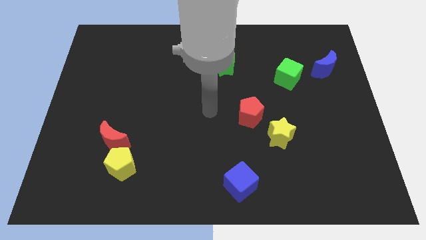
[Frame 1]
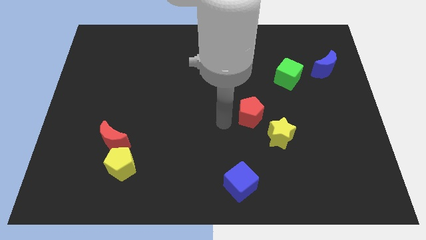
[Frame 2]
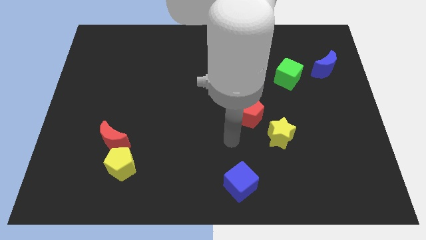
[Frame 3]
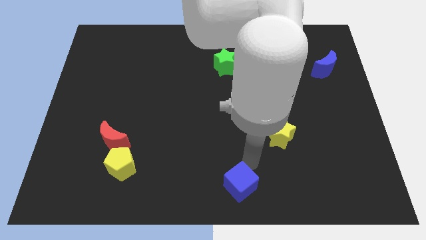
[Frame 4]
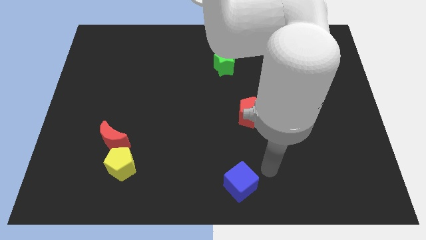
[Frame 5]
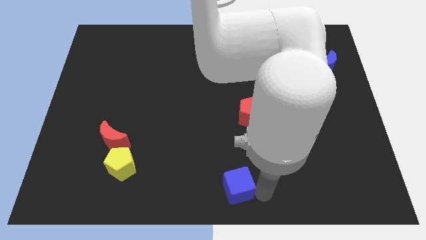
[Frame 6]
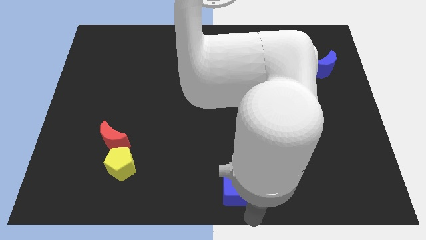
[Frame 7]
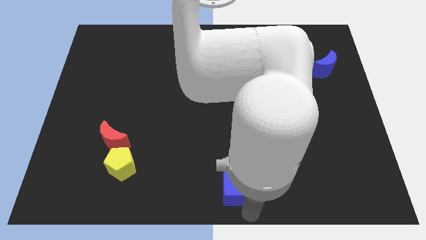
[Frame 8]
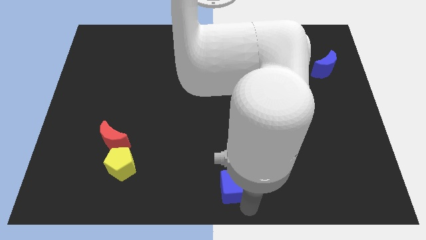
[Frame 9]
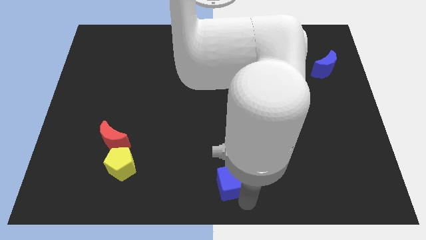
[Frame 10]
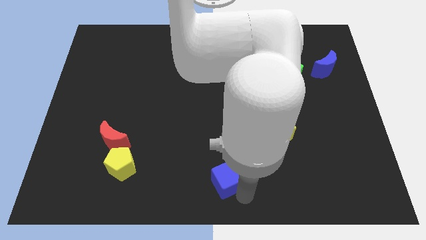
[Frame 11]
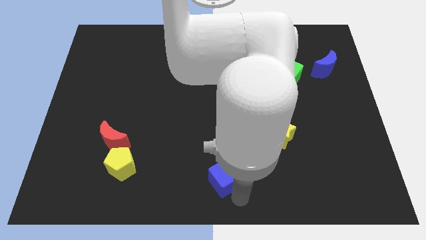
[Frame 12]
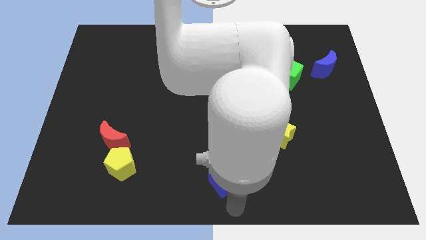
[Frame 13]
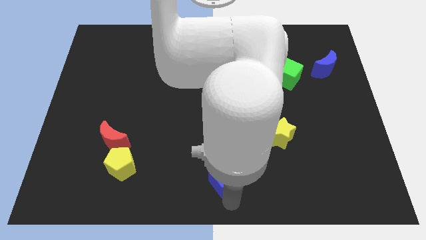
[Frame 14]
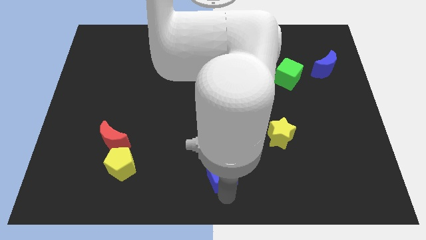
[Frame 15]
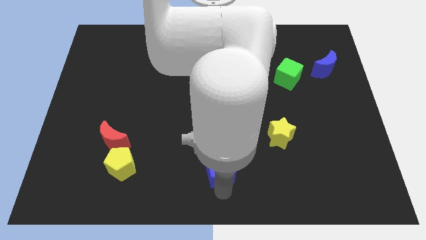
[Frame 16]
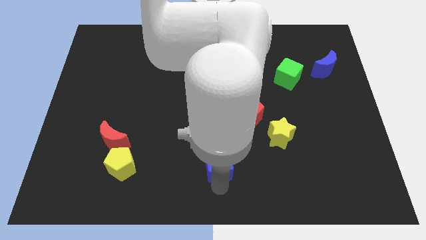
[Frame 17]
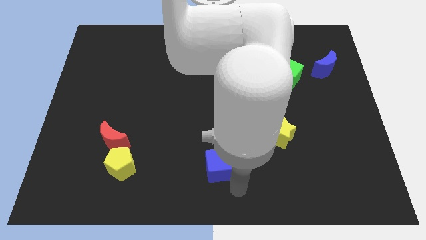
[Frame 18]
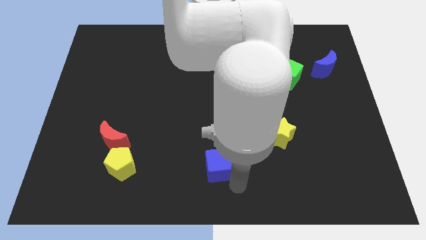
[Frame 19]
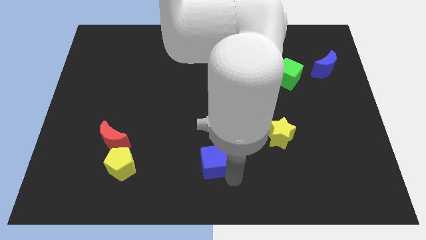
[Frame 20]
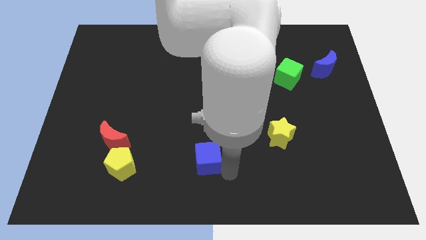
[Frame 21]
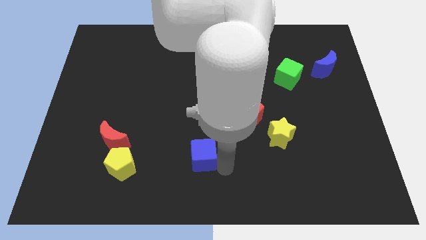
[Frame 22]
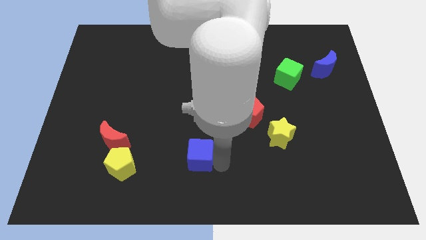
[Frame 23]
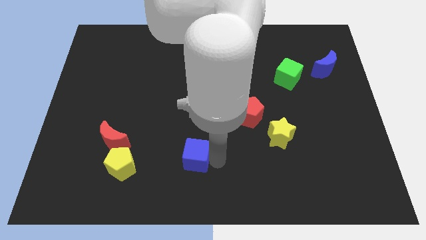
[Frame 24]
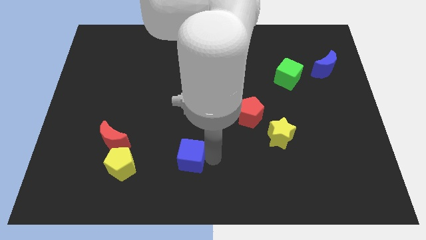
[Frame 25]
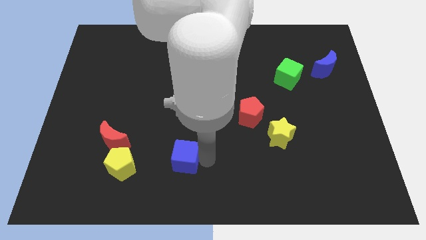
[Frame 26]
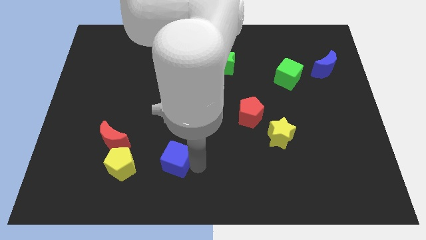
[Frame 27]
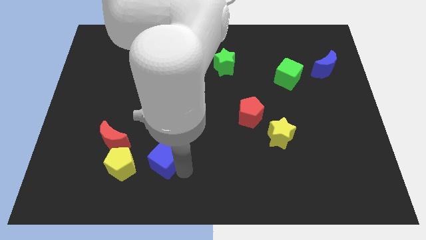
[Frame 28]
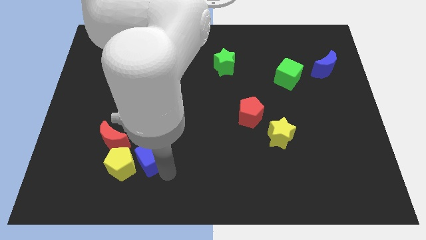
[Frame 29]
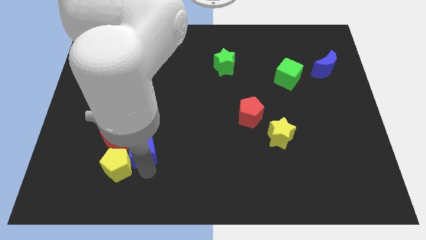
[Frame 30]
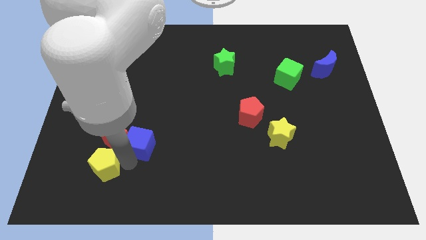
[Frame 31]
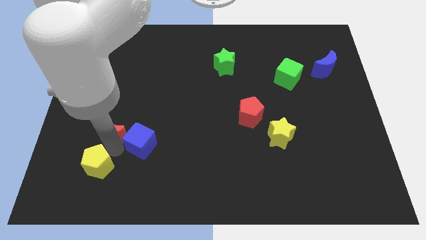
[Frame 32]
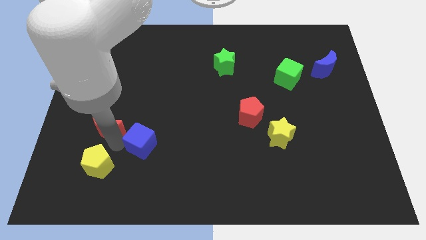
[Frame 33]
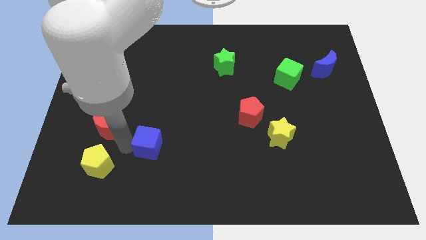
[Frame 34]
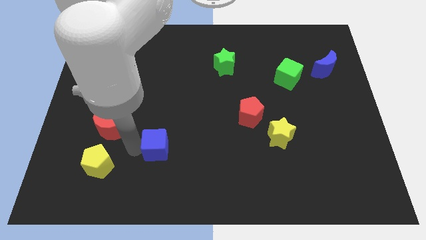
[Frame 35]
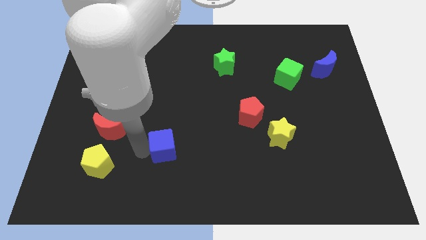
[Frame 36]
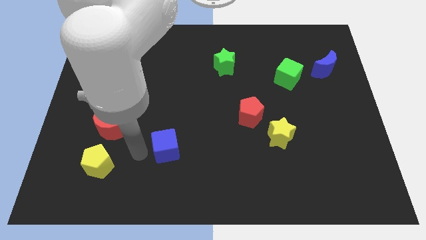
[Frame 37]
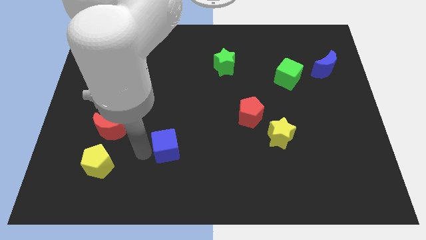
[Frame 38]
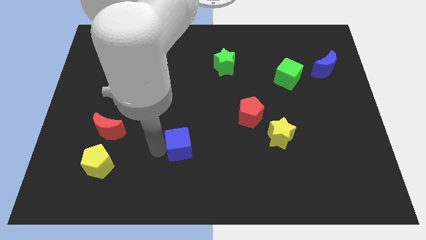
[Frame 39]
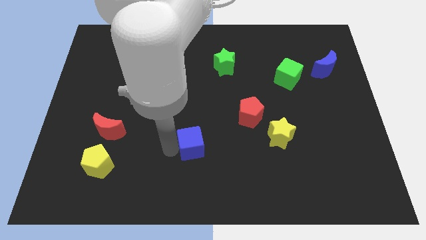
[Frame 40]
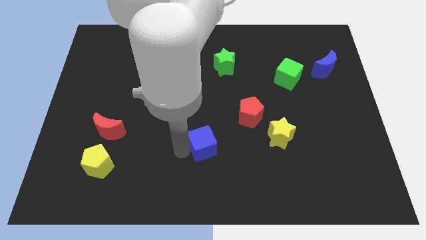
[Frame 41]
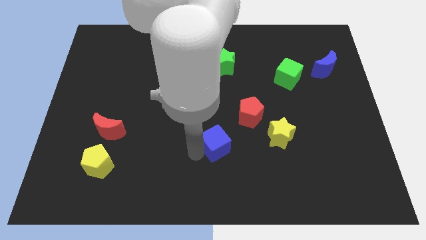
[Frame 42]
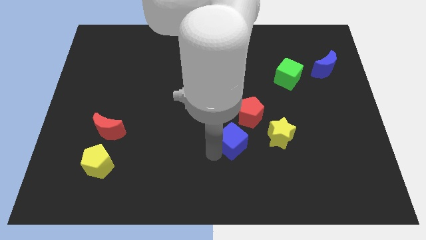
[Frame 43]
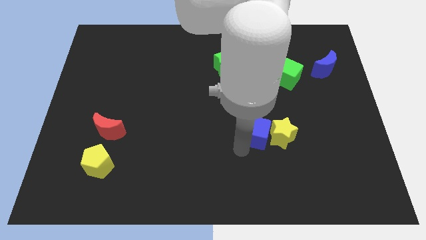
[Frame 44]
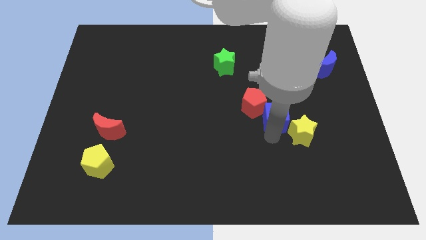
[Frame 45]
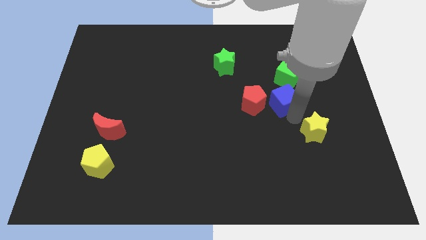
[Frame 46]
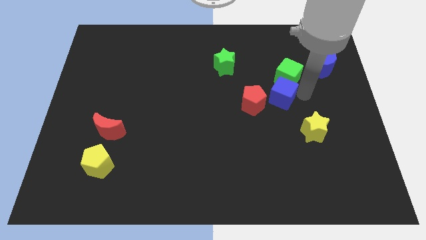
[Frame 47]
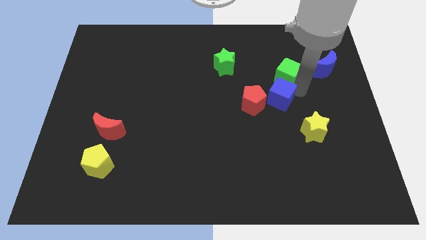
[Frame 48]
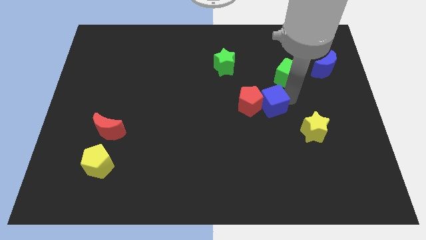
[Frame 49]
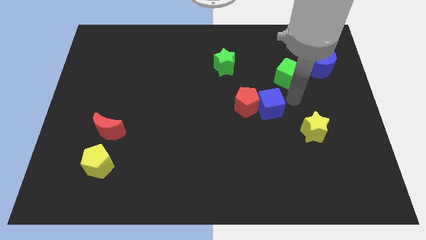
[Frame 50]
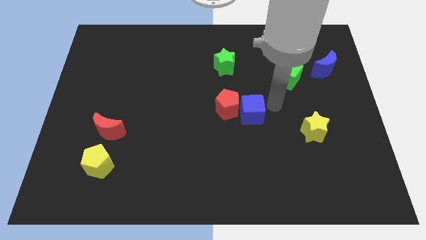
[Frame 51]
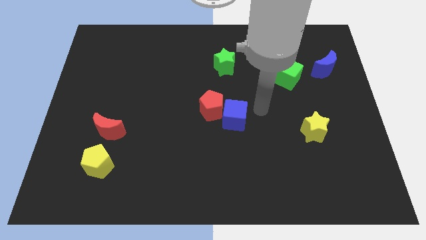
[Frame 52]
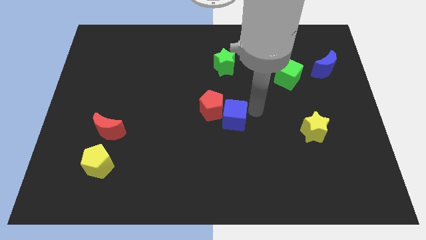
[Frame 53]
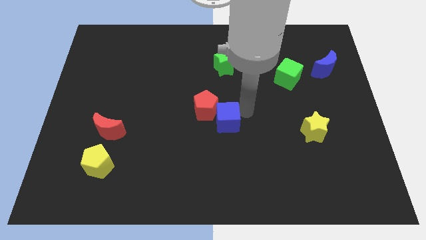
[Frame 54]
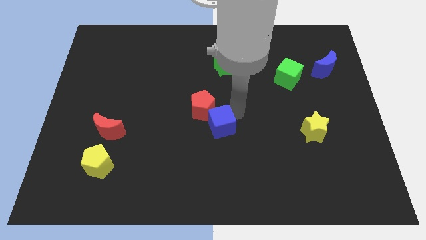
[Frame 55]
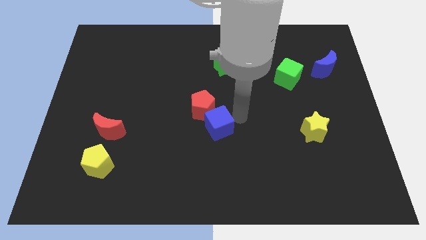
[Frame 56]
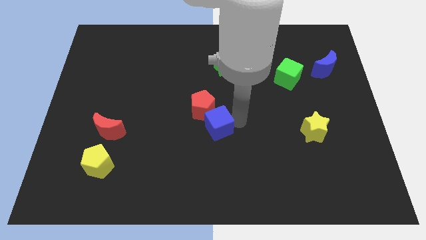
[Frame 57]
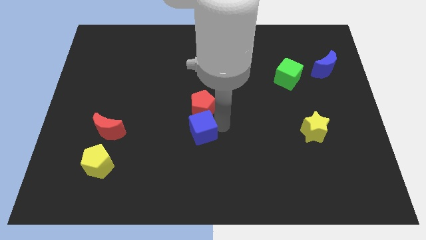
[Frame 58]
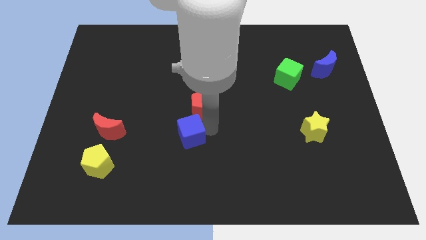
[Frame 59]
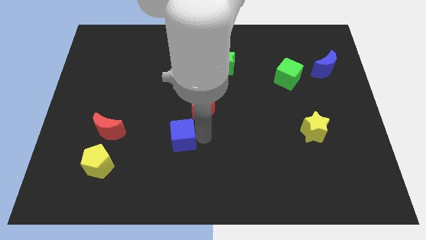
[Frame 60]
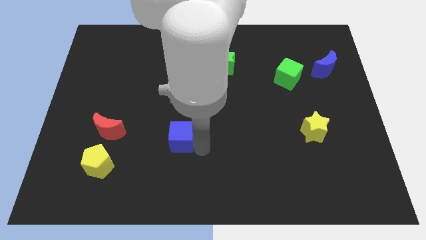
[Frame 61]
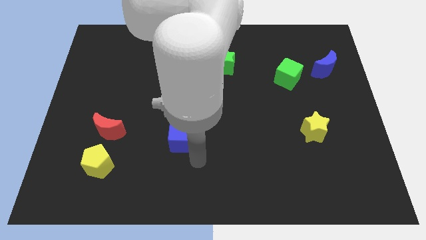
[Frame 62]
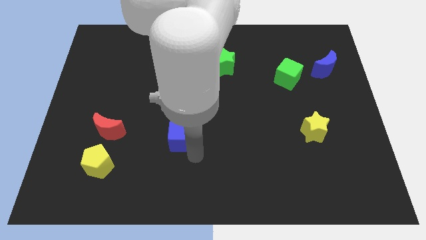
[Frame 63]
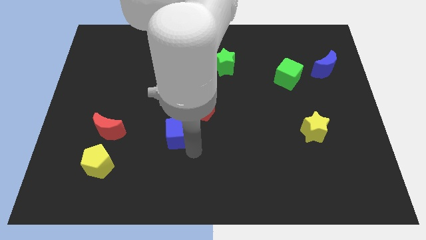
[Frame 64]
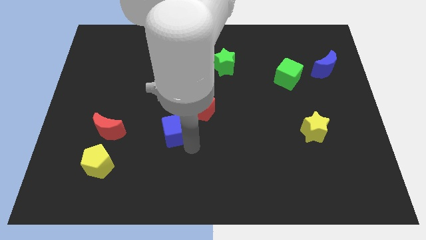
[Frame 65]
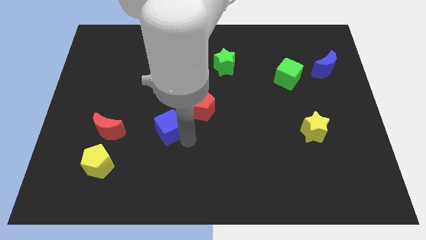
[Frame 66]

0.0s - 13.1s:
move the blue cube up and left diagonally

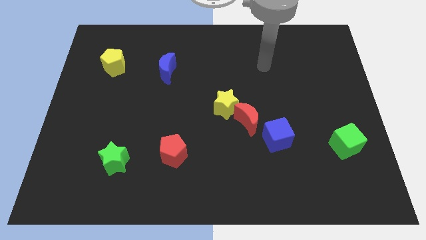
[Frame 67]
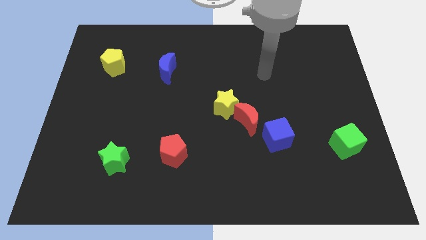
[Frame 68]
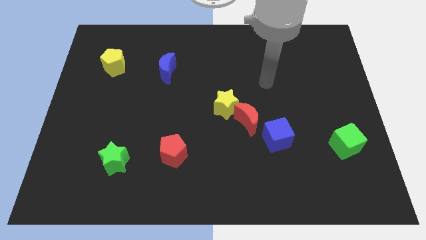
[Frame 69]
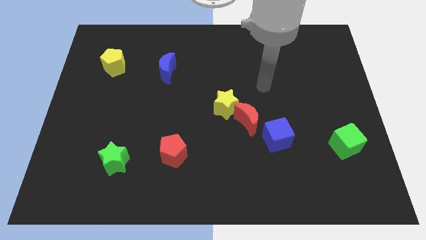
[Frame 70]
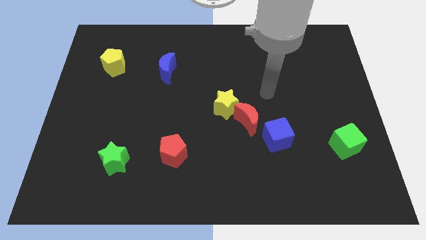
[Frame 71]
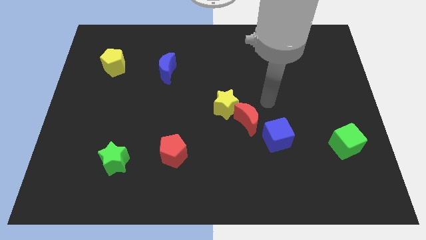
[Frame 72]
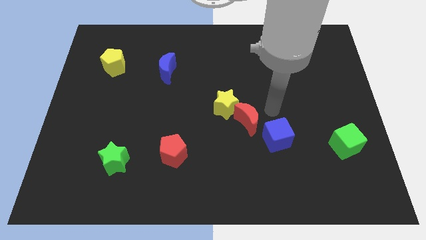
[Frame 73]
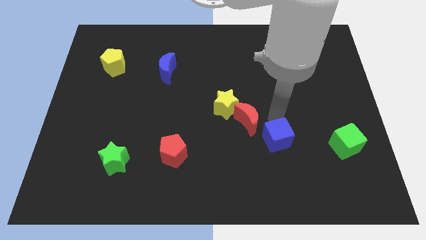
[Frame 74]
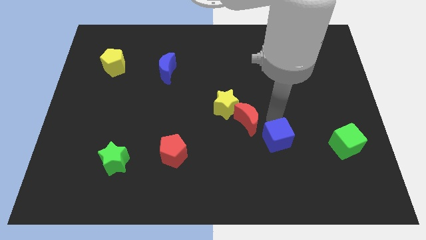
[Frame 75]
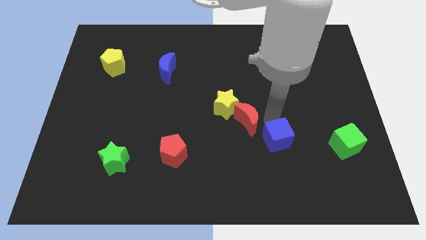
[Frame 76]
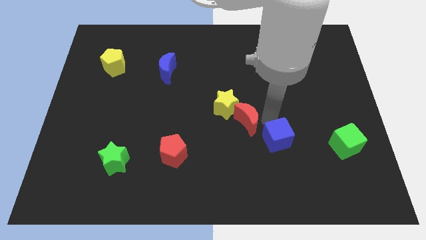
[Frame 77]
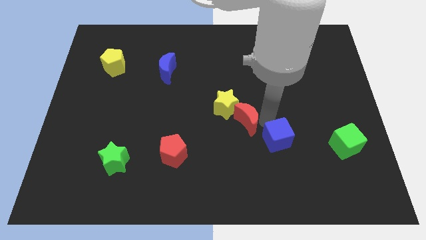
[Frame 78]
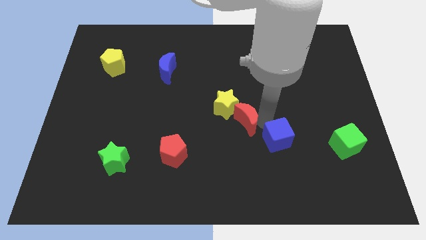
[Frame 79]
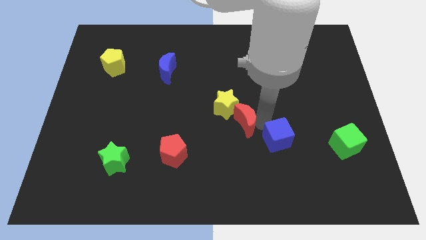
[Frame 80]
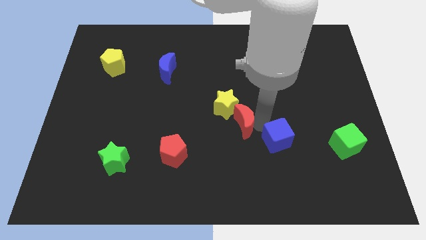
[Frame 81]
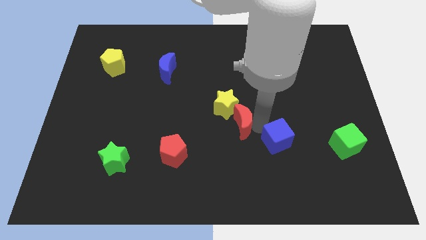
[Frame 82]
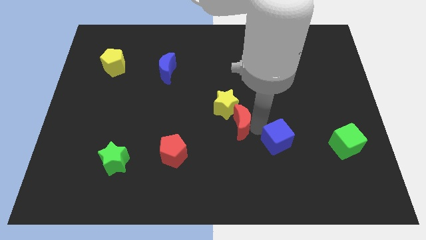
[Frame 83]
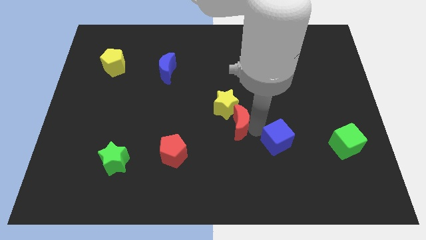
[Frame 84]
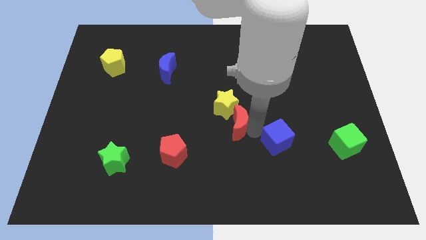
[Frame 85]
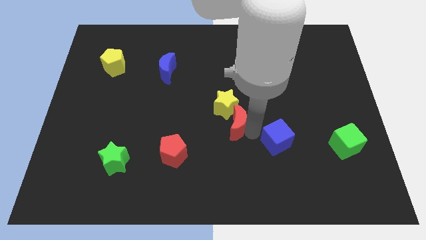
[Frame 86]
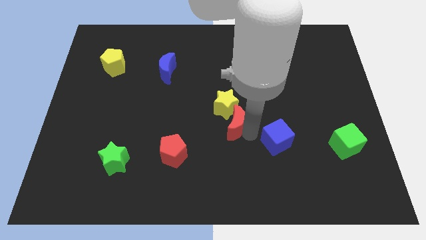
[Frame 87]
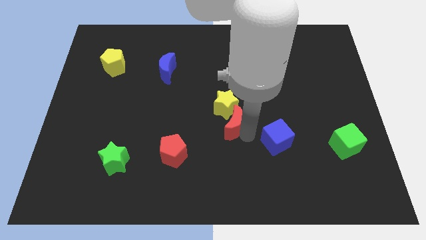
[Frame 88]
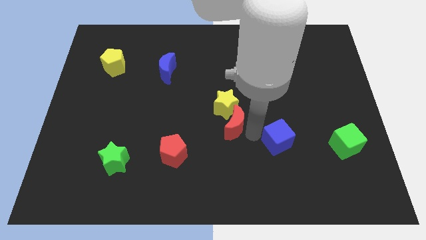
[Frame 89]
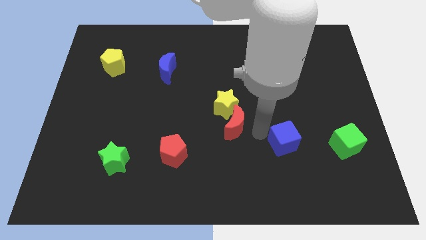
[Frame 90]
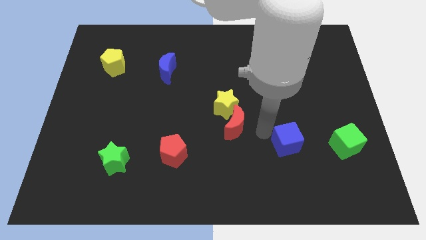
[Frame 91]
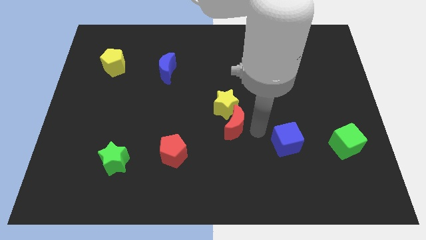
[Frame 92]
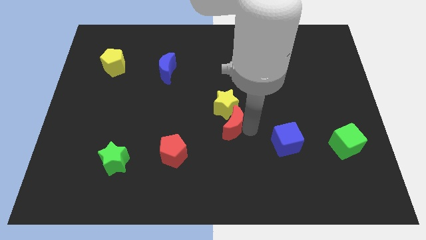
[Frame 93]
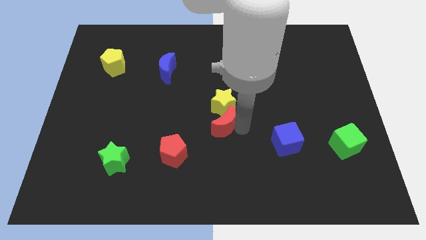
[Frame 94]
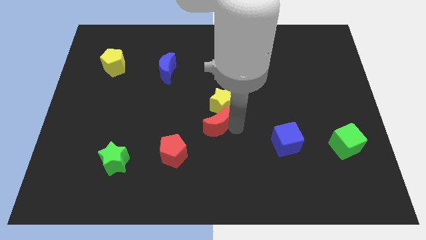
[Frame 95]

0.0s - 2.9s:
move the red moon left a little bit
